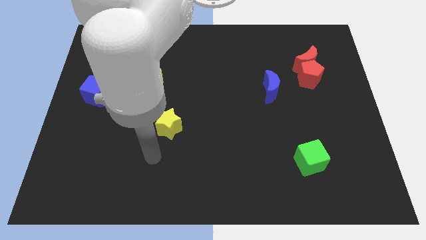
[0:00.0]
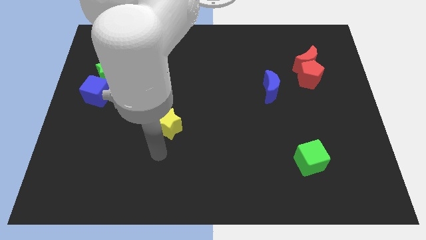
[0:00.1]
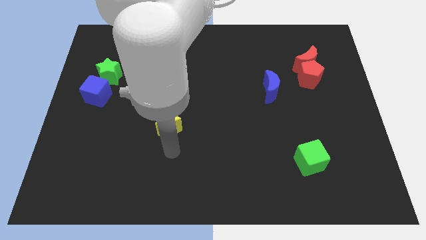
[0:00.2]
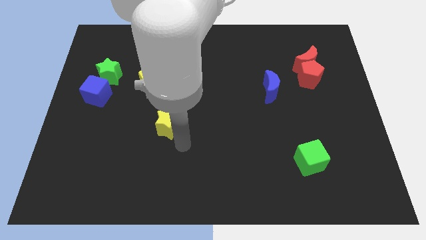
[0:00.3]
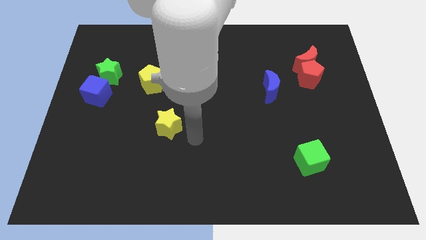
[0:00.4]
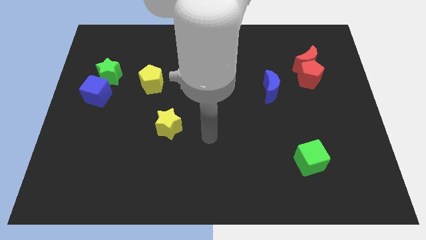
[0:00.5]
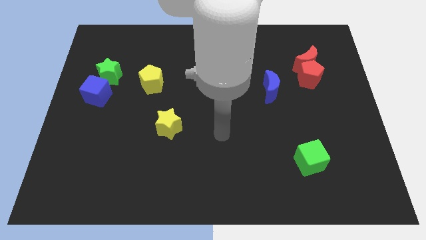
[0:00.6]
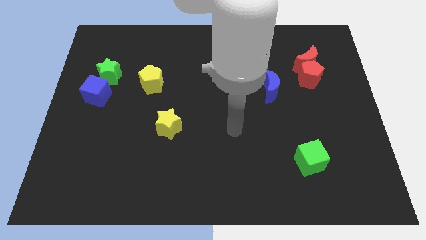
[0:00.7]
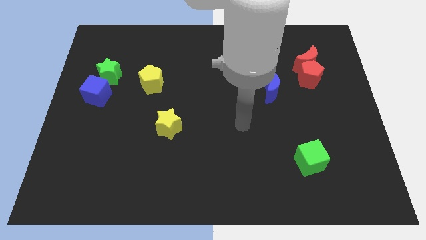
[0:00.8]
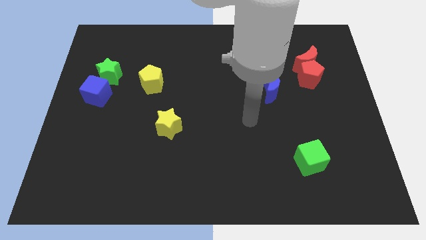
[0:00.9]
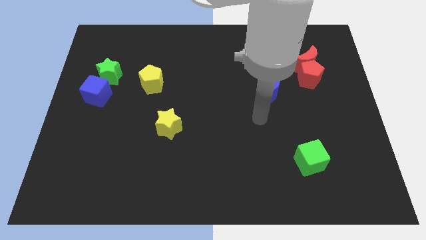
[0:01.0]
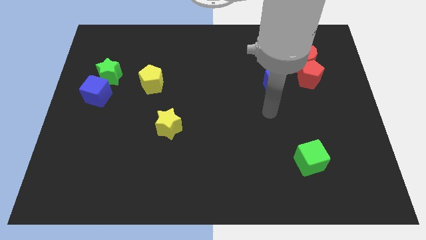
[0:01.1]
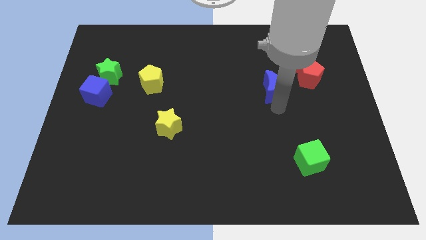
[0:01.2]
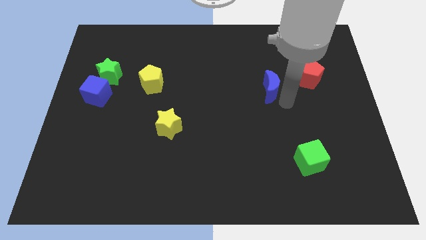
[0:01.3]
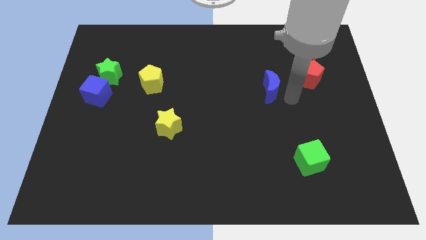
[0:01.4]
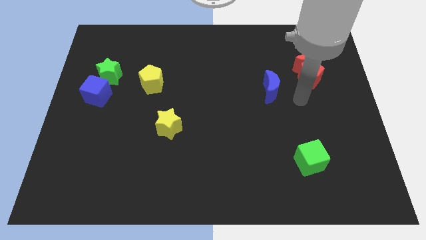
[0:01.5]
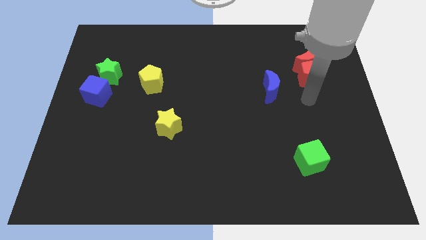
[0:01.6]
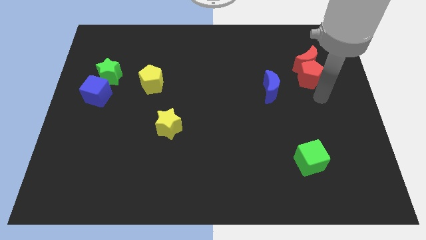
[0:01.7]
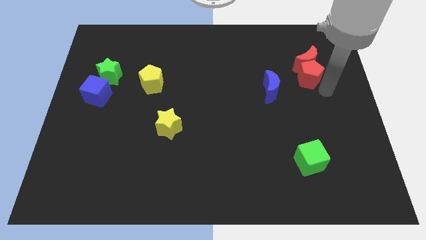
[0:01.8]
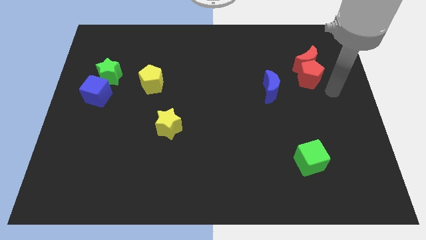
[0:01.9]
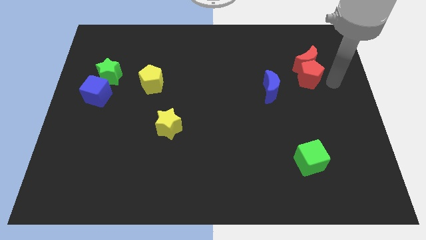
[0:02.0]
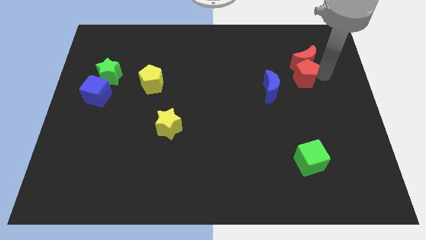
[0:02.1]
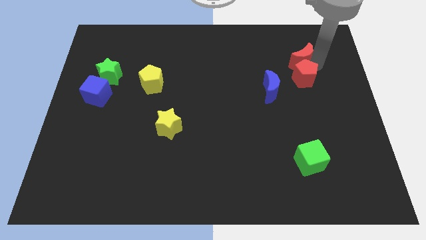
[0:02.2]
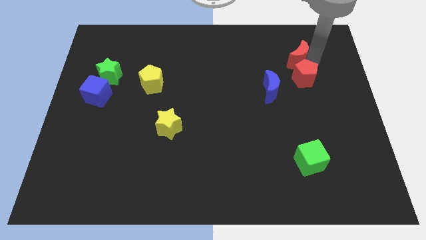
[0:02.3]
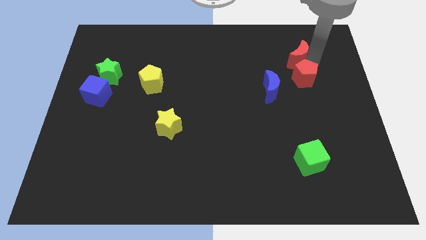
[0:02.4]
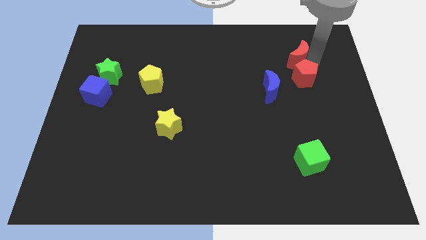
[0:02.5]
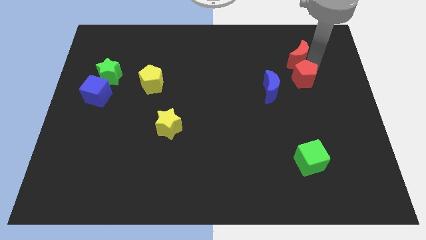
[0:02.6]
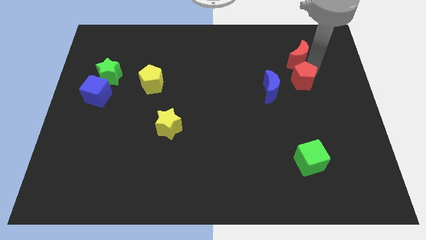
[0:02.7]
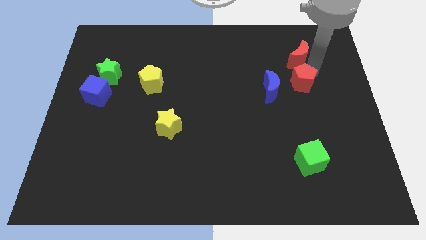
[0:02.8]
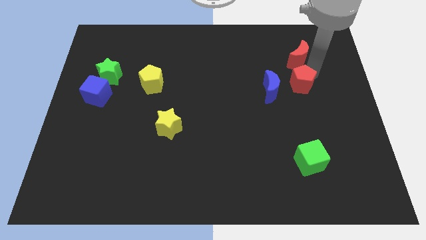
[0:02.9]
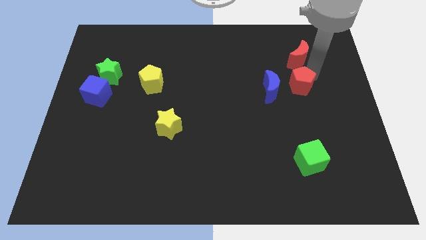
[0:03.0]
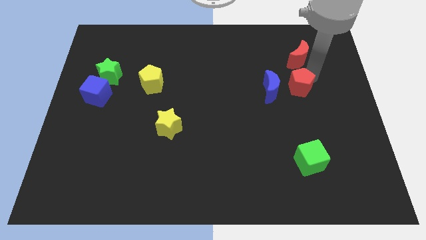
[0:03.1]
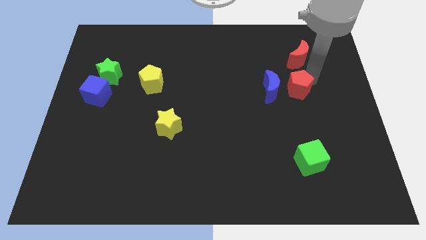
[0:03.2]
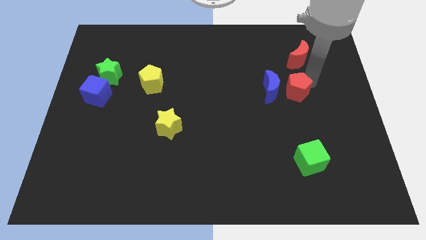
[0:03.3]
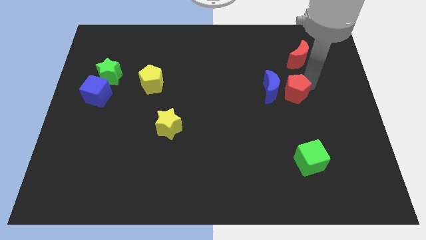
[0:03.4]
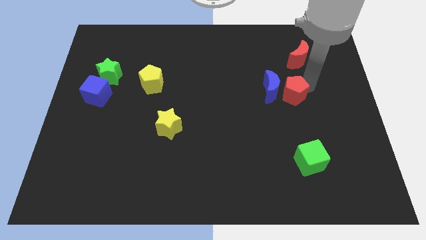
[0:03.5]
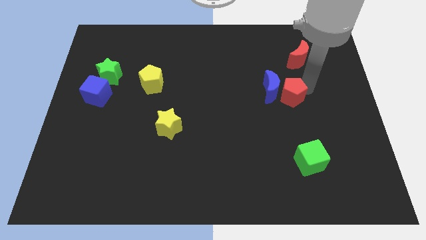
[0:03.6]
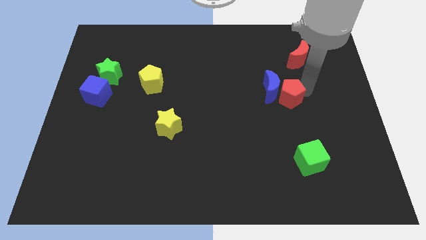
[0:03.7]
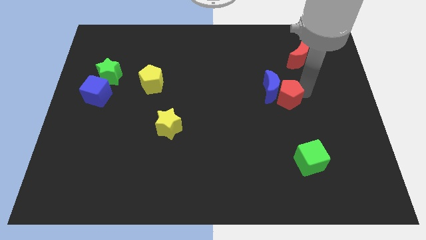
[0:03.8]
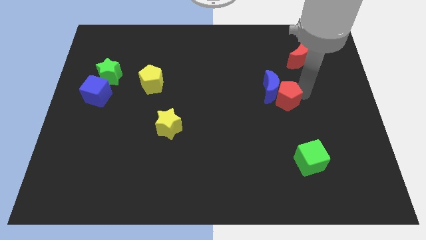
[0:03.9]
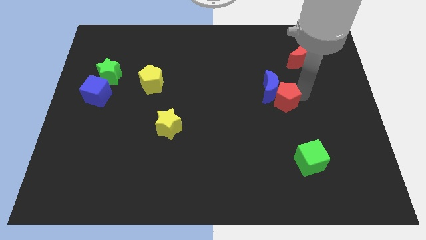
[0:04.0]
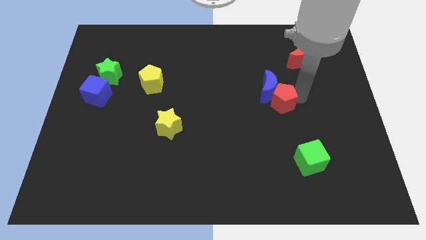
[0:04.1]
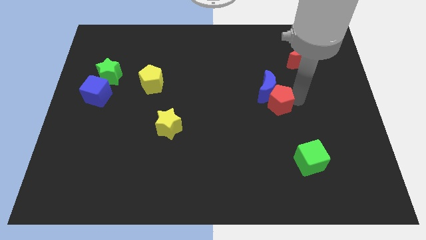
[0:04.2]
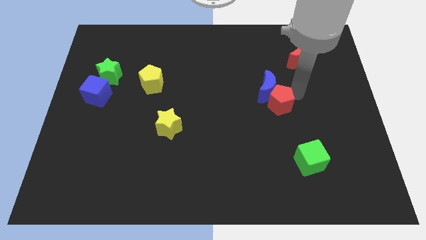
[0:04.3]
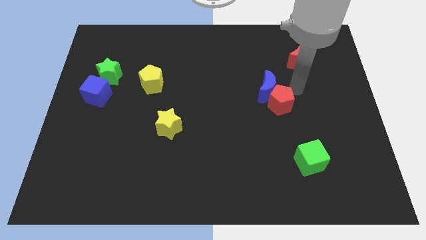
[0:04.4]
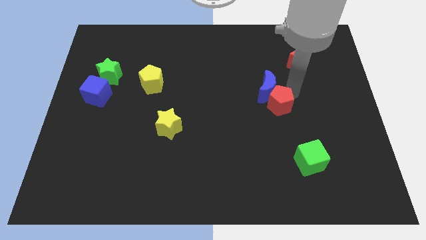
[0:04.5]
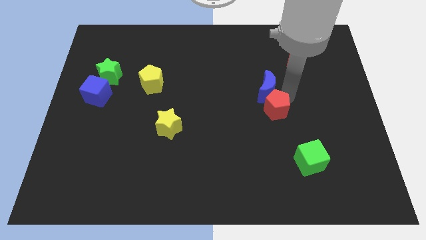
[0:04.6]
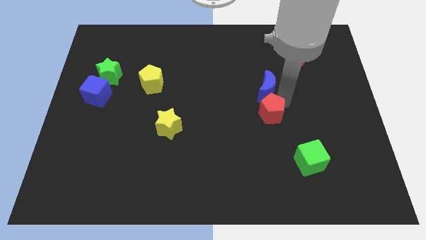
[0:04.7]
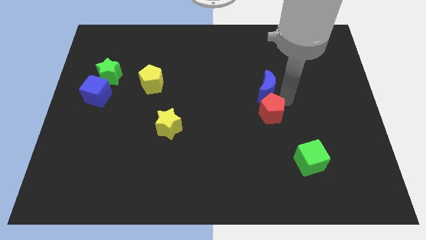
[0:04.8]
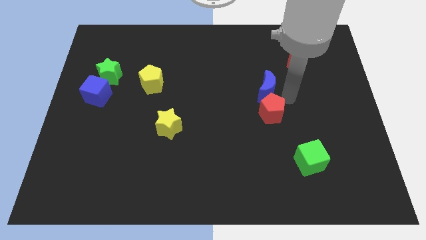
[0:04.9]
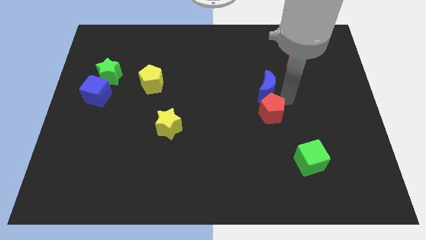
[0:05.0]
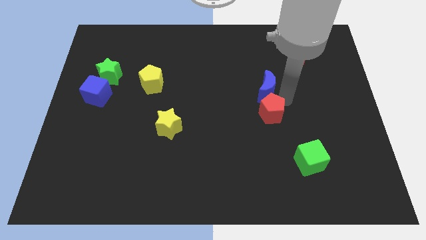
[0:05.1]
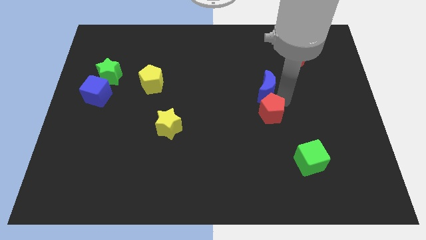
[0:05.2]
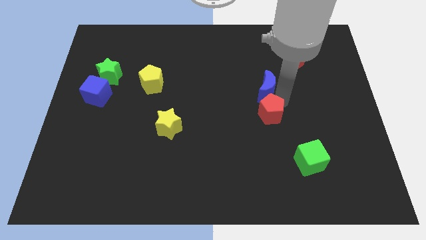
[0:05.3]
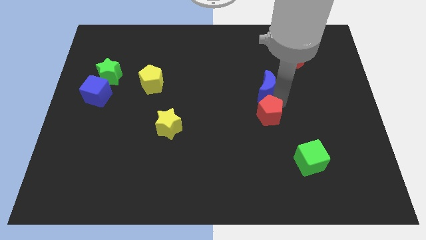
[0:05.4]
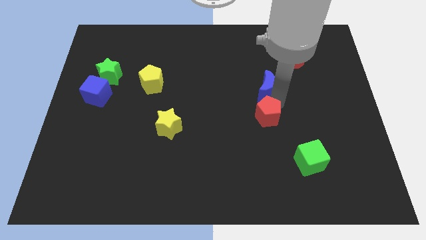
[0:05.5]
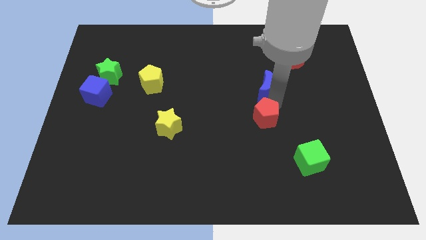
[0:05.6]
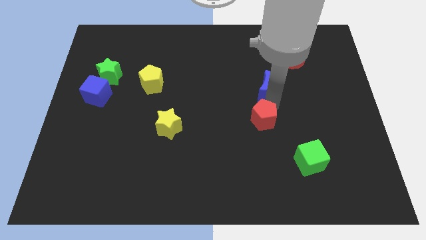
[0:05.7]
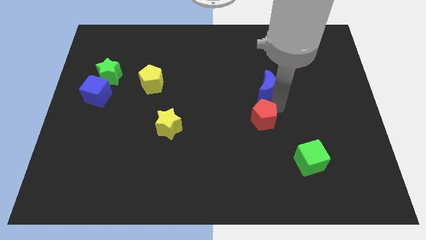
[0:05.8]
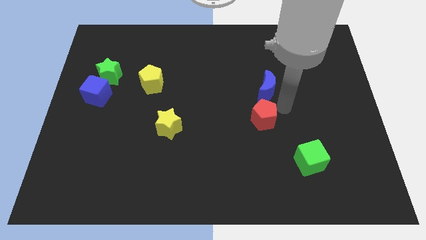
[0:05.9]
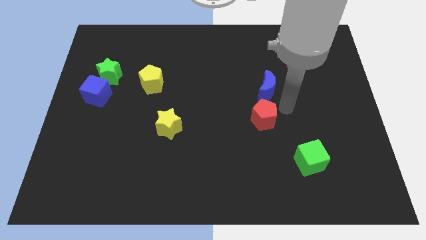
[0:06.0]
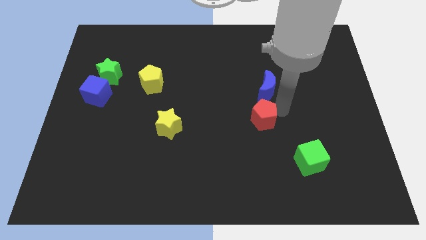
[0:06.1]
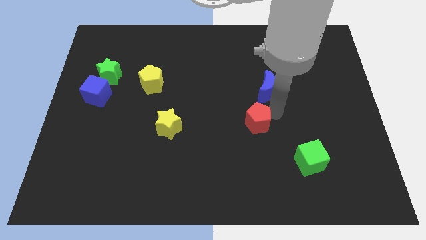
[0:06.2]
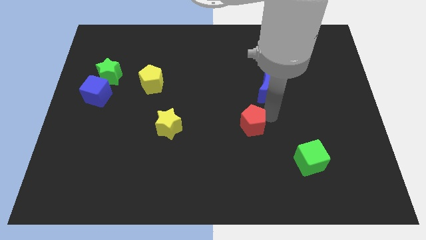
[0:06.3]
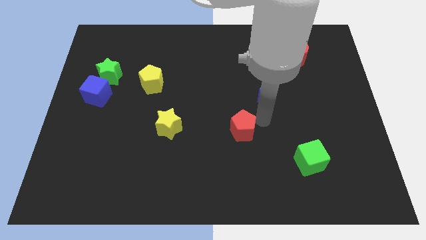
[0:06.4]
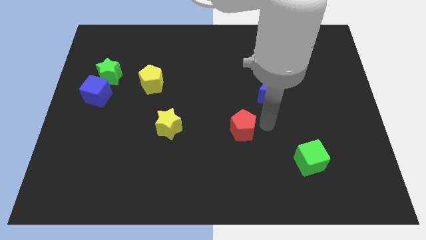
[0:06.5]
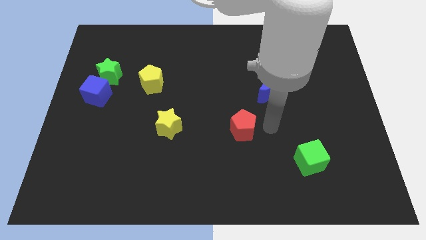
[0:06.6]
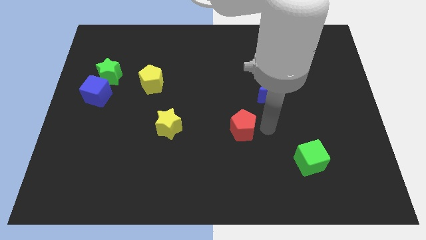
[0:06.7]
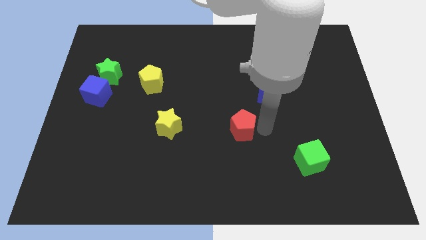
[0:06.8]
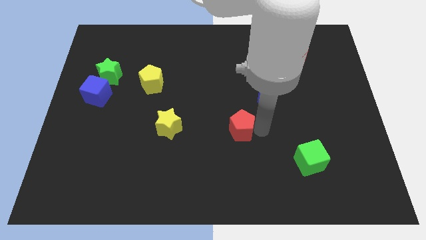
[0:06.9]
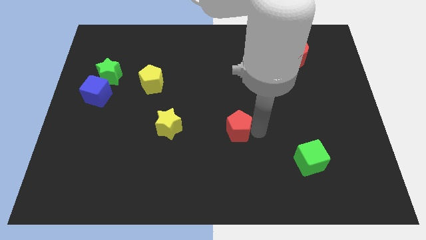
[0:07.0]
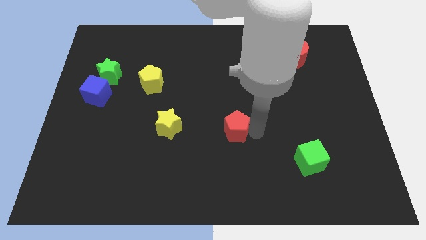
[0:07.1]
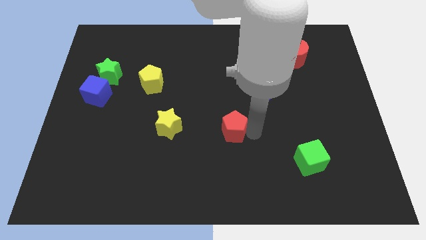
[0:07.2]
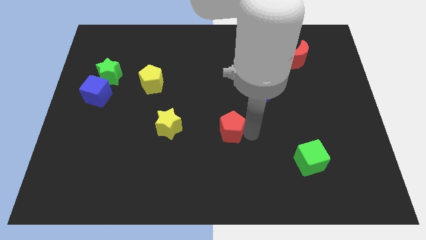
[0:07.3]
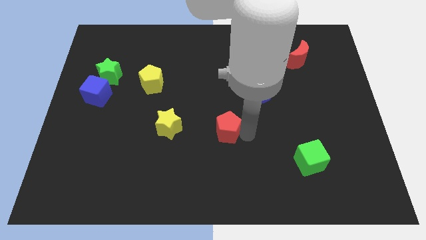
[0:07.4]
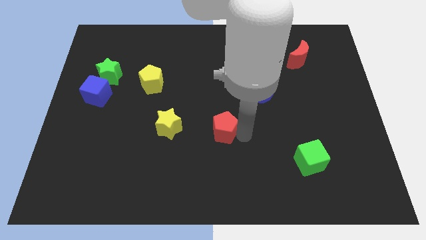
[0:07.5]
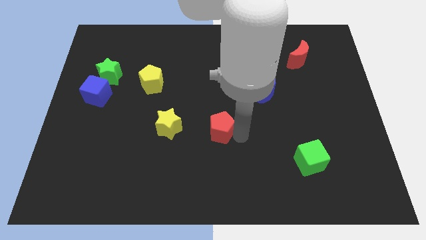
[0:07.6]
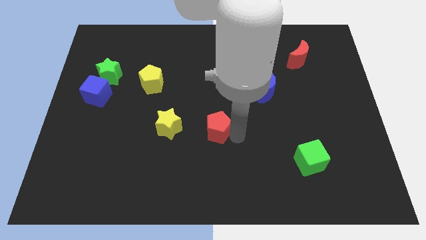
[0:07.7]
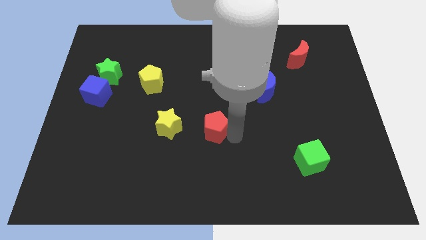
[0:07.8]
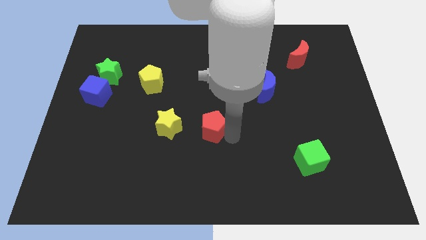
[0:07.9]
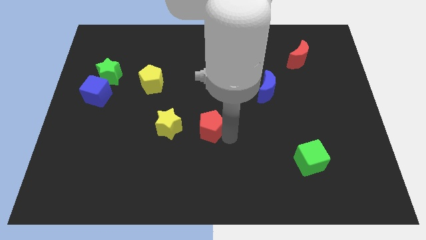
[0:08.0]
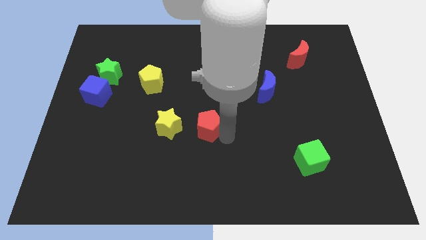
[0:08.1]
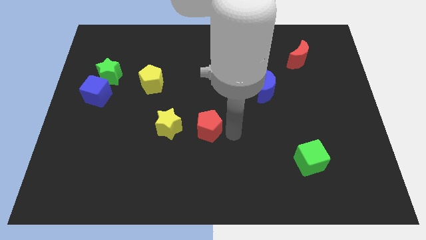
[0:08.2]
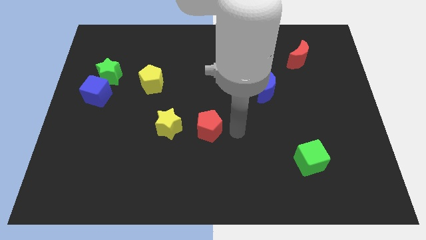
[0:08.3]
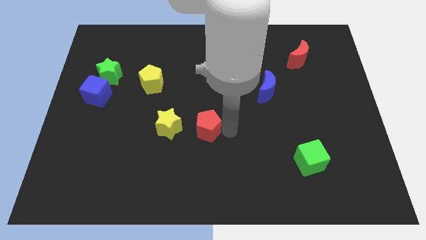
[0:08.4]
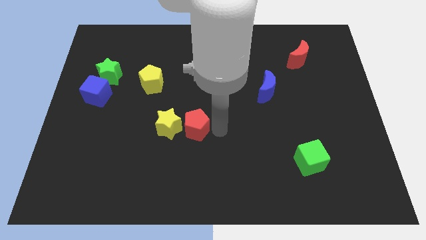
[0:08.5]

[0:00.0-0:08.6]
put the red pentagon next to the yellow star
